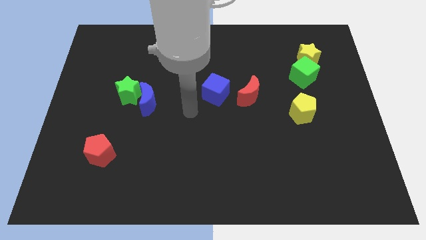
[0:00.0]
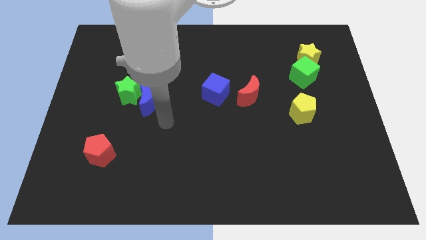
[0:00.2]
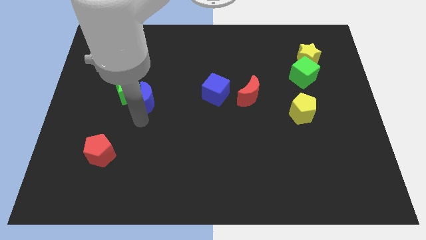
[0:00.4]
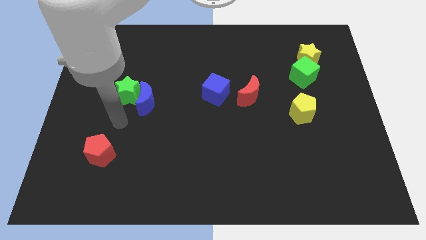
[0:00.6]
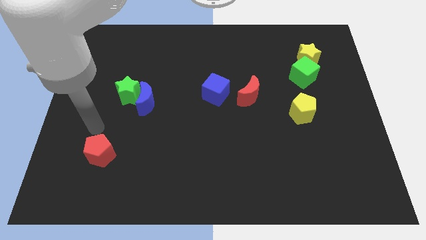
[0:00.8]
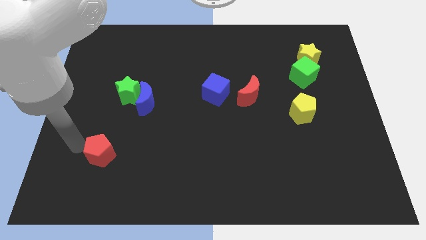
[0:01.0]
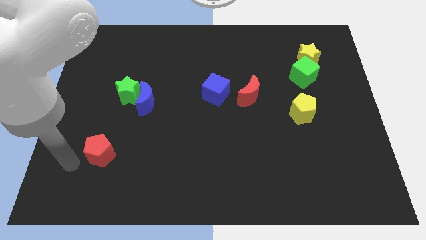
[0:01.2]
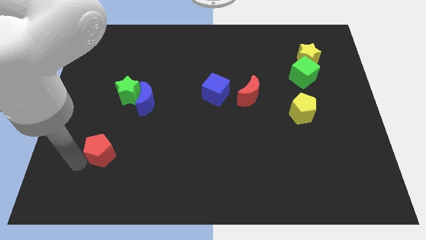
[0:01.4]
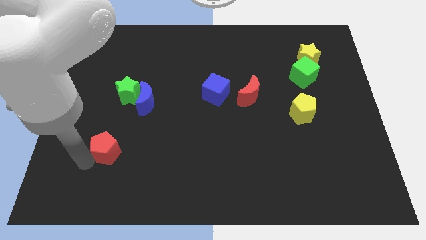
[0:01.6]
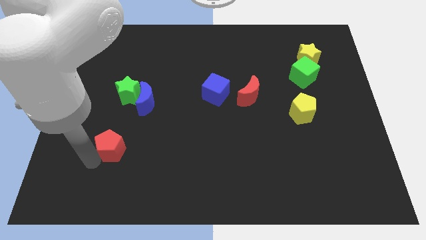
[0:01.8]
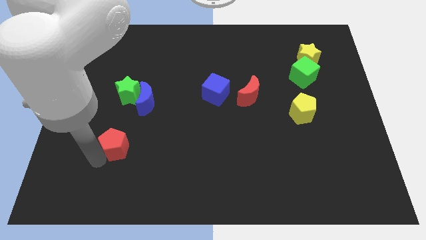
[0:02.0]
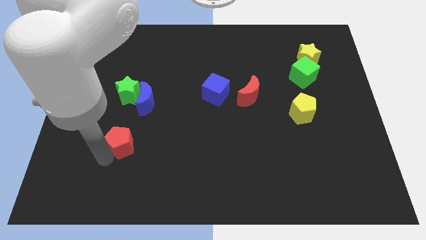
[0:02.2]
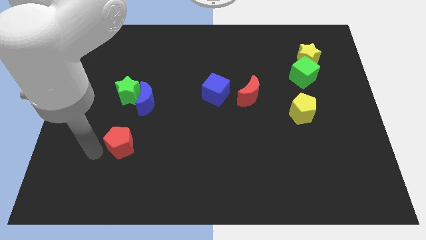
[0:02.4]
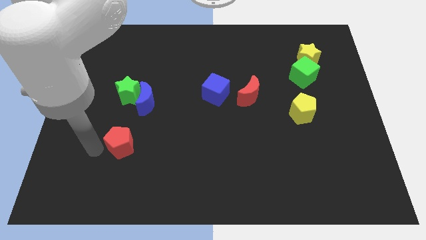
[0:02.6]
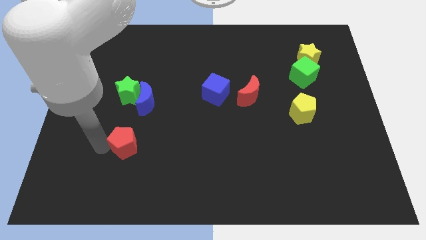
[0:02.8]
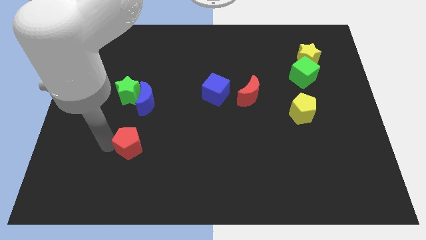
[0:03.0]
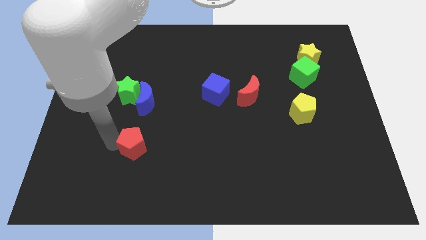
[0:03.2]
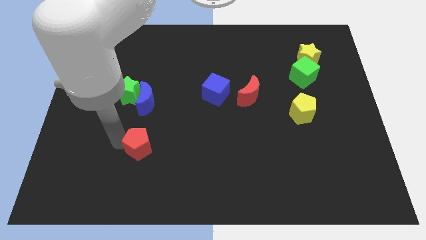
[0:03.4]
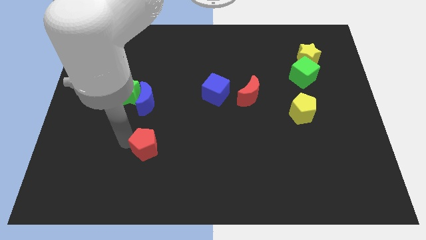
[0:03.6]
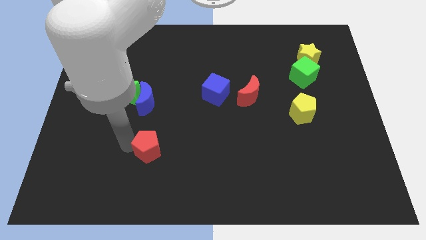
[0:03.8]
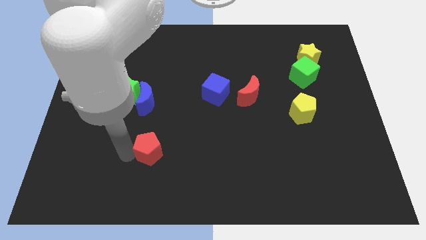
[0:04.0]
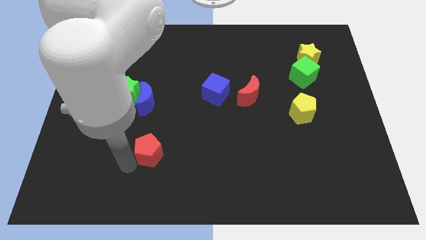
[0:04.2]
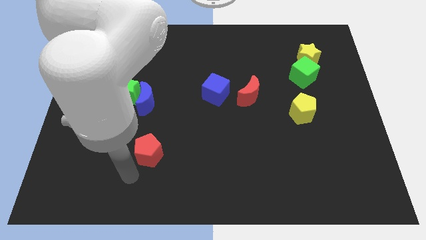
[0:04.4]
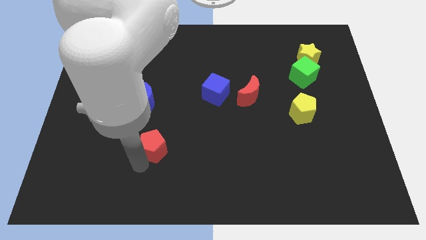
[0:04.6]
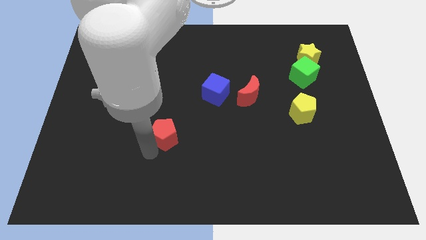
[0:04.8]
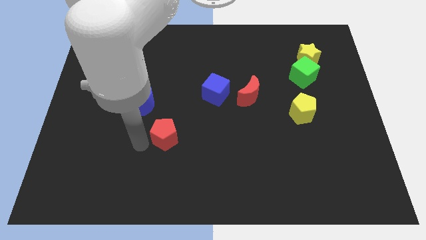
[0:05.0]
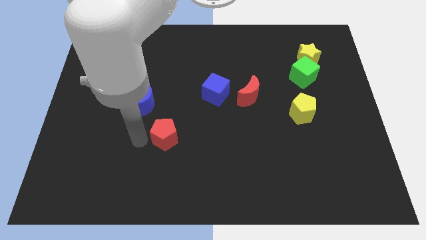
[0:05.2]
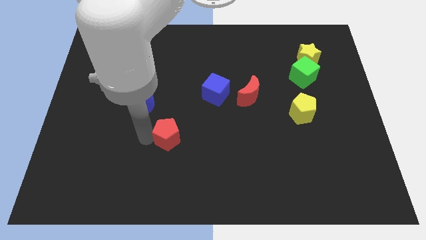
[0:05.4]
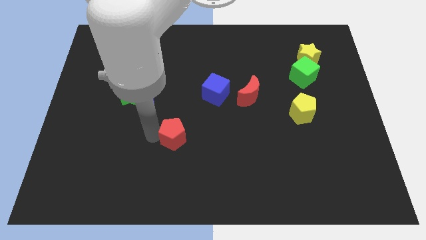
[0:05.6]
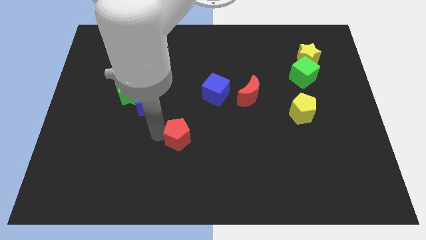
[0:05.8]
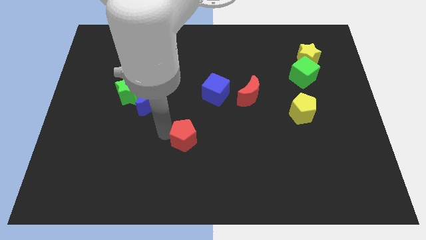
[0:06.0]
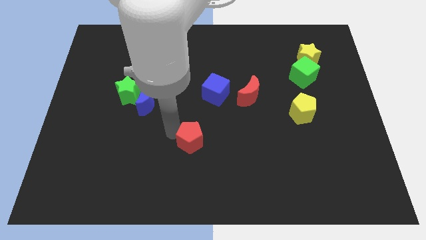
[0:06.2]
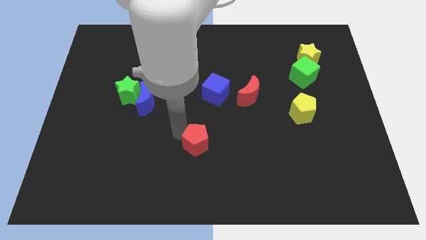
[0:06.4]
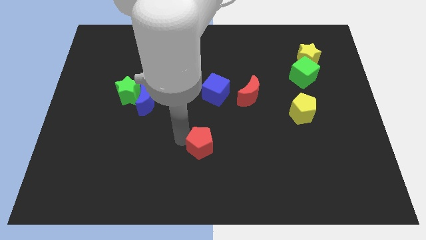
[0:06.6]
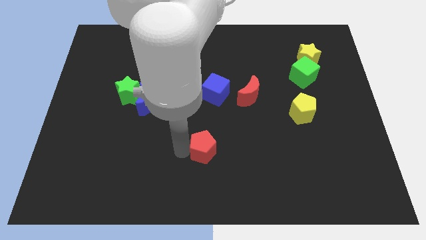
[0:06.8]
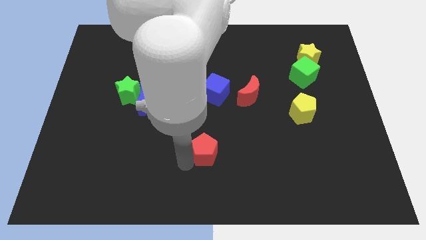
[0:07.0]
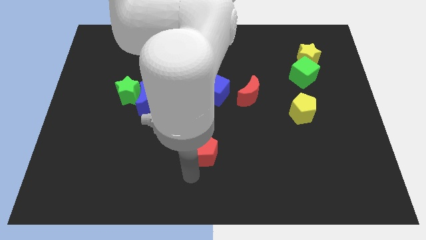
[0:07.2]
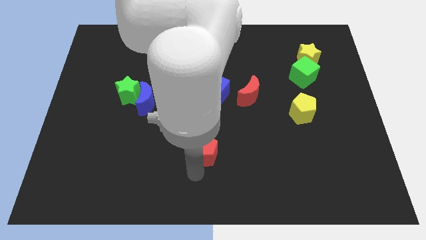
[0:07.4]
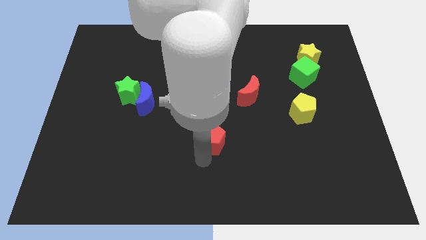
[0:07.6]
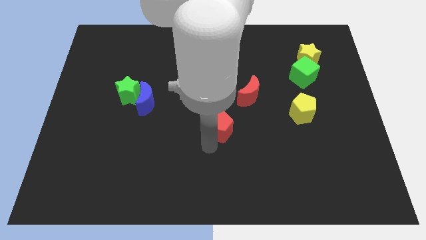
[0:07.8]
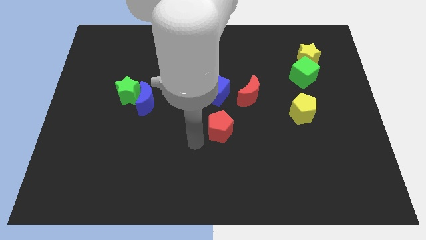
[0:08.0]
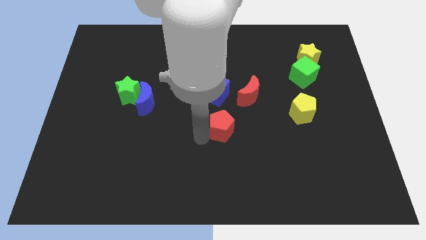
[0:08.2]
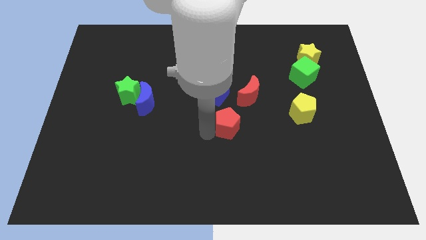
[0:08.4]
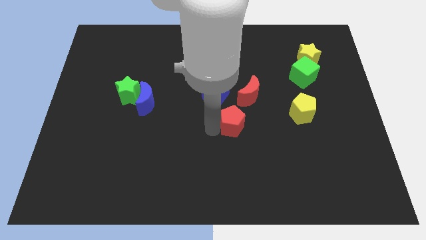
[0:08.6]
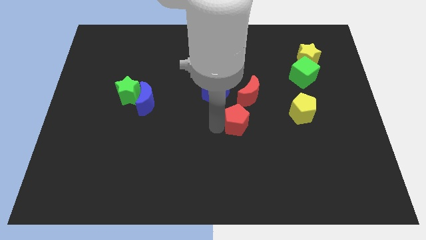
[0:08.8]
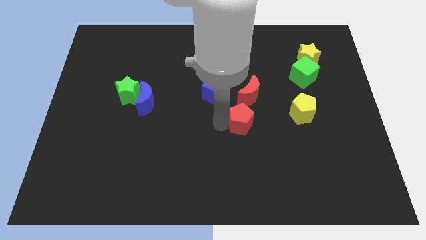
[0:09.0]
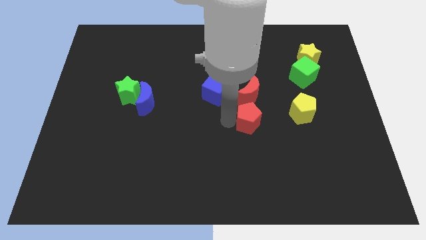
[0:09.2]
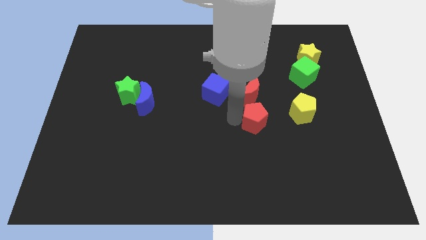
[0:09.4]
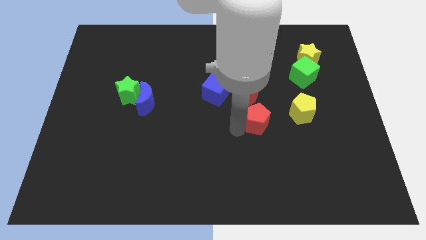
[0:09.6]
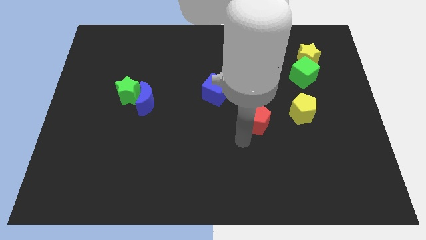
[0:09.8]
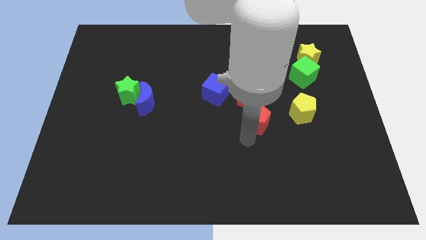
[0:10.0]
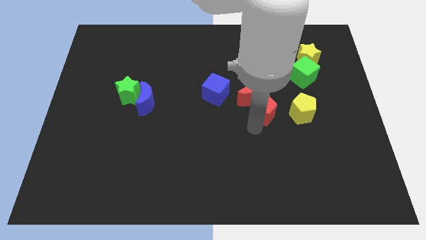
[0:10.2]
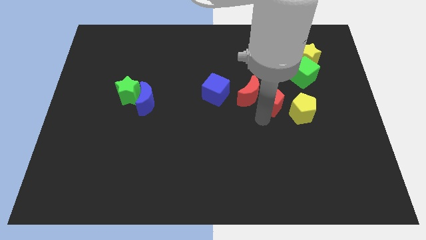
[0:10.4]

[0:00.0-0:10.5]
put the red pentagon to the right of the blue cube

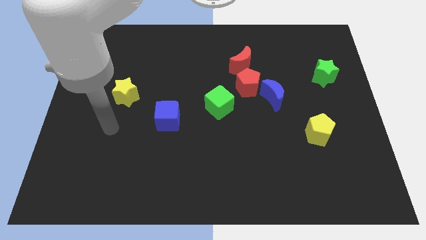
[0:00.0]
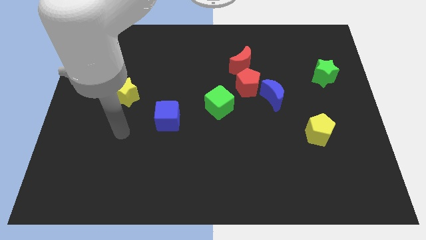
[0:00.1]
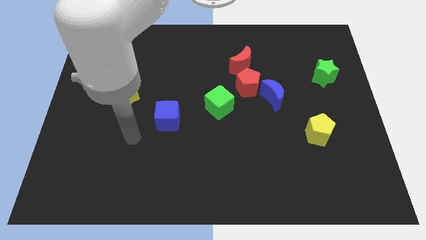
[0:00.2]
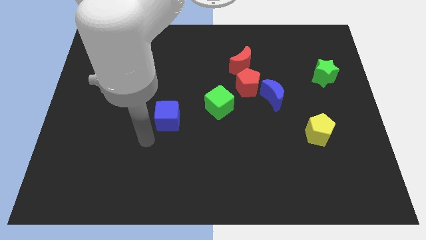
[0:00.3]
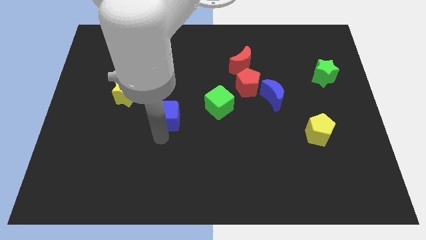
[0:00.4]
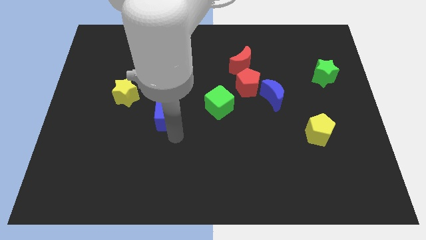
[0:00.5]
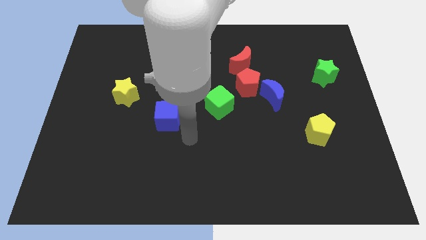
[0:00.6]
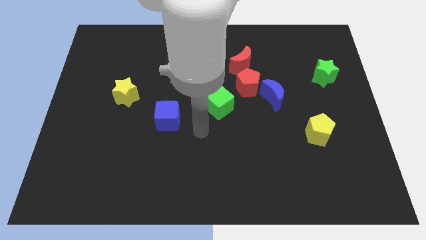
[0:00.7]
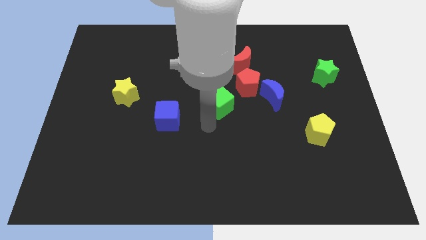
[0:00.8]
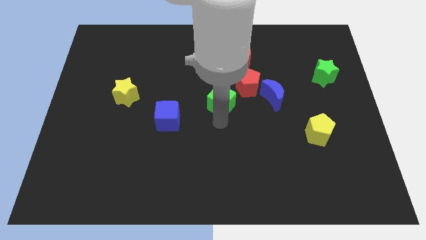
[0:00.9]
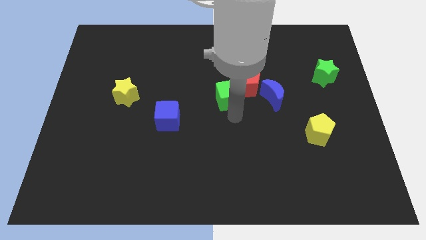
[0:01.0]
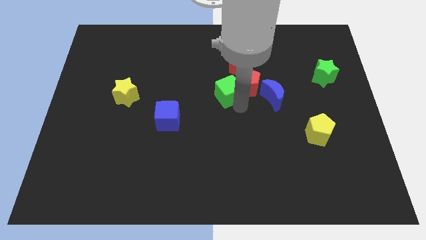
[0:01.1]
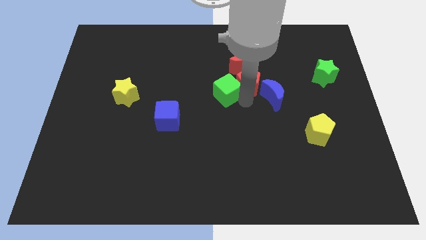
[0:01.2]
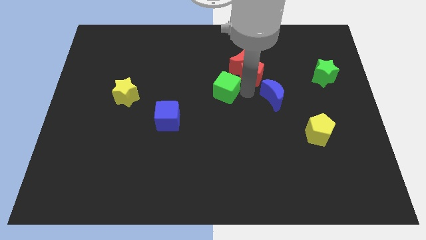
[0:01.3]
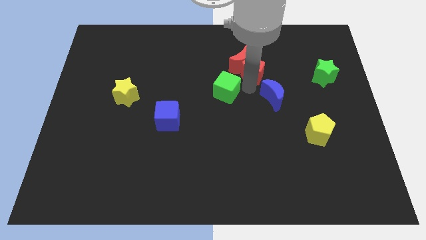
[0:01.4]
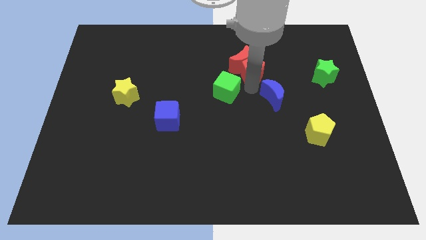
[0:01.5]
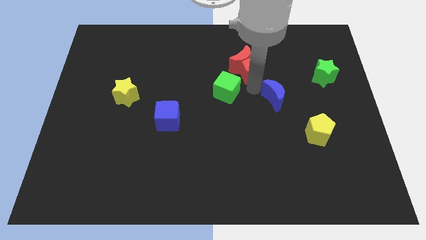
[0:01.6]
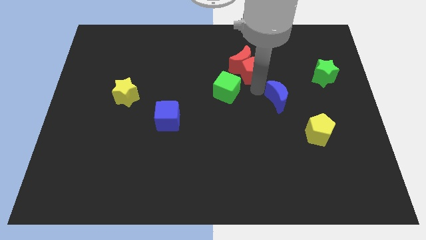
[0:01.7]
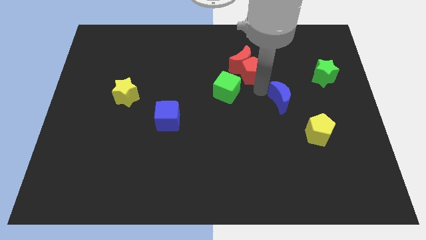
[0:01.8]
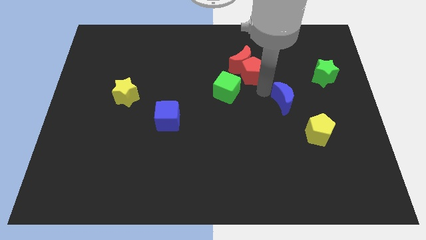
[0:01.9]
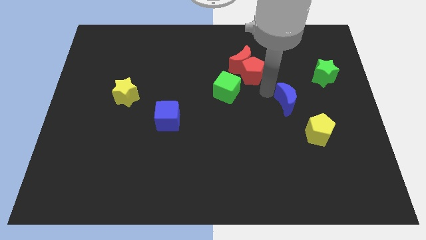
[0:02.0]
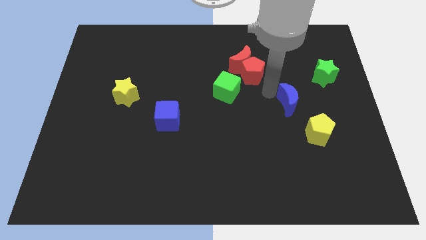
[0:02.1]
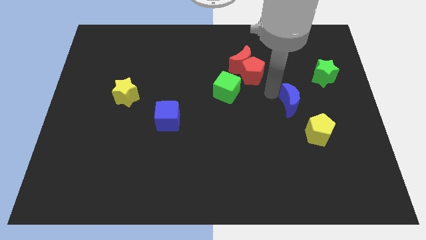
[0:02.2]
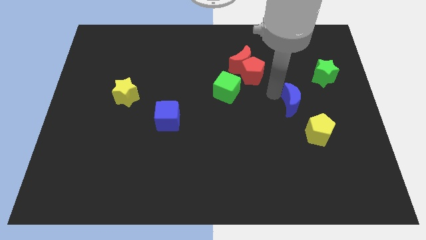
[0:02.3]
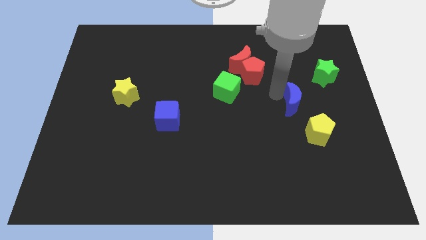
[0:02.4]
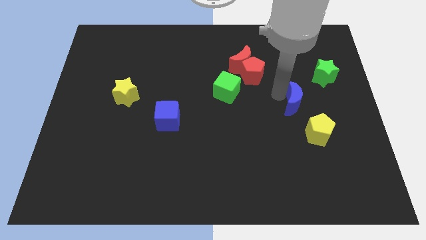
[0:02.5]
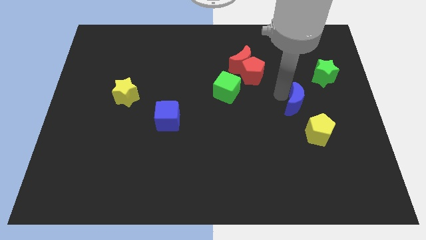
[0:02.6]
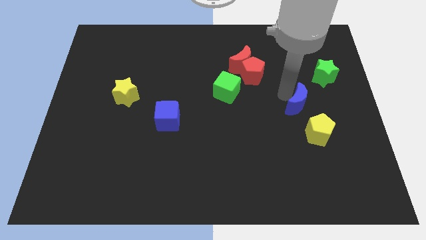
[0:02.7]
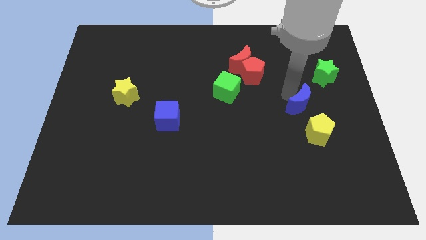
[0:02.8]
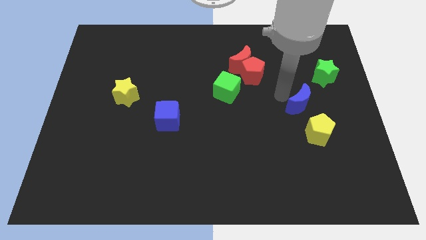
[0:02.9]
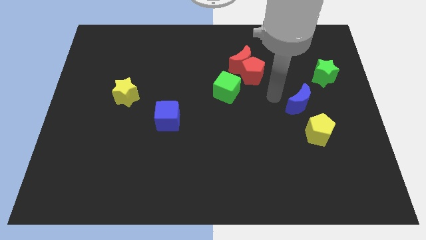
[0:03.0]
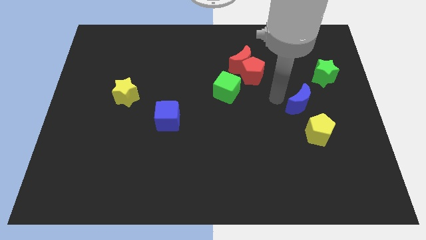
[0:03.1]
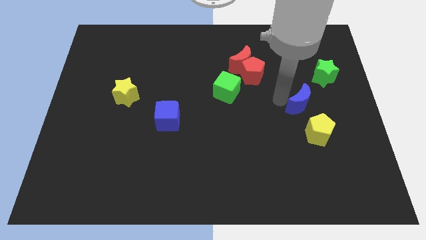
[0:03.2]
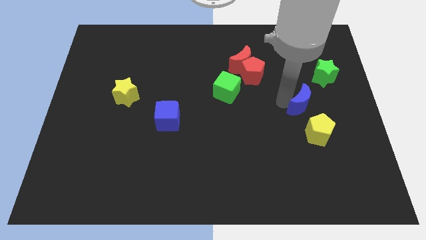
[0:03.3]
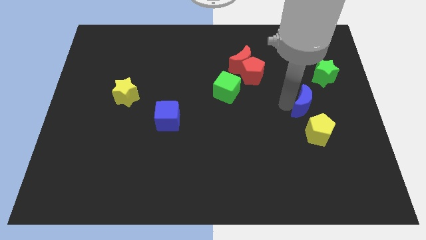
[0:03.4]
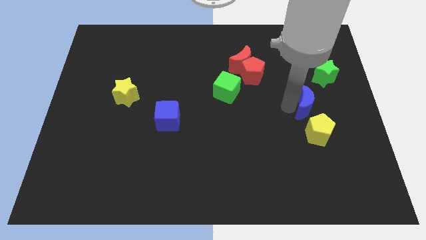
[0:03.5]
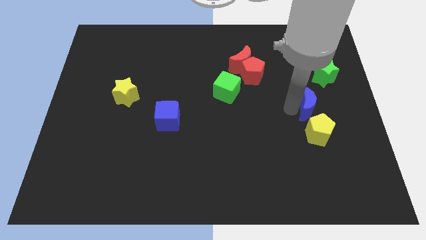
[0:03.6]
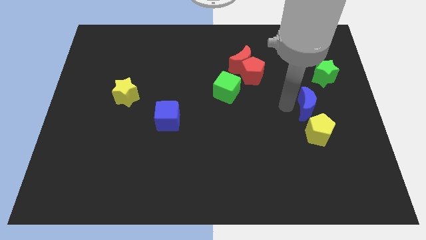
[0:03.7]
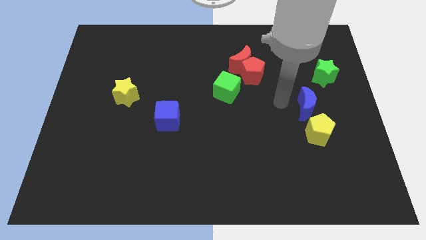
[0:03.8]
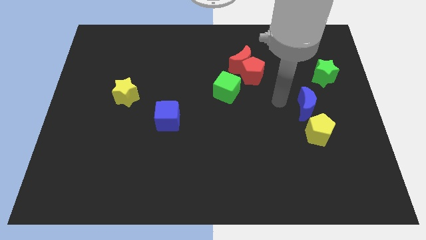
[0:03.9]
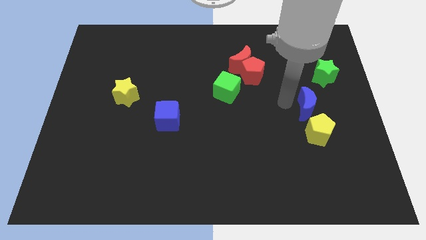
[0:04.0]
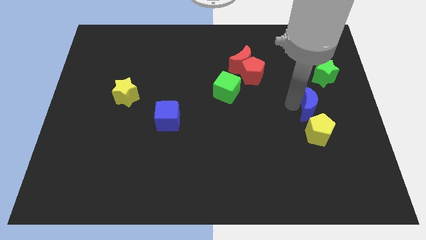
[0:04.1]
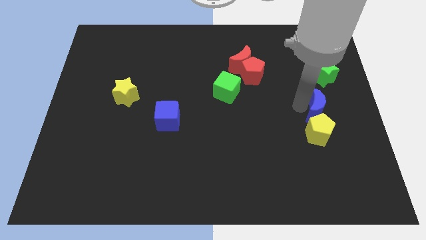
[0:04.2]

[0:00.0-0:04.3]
push the blue moon to the top right side of the yellow pentagon
